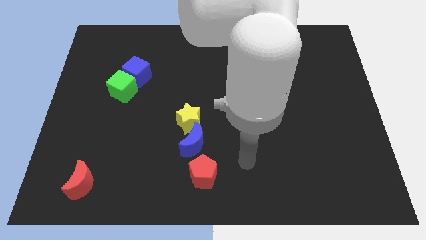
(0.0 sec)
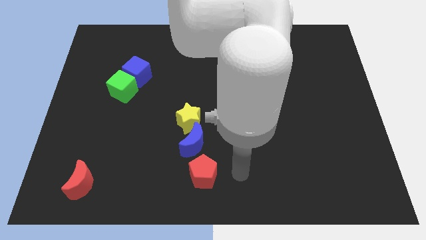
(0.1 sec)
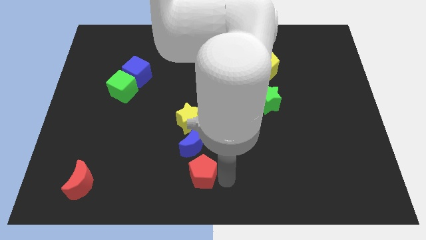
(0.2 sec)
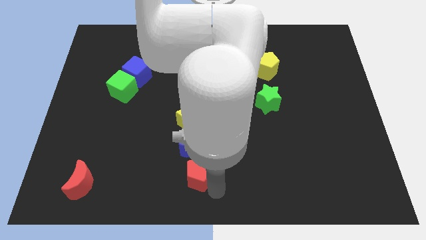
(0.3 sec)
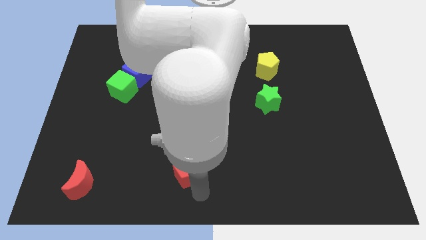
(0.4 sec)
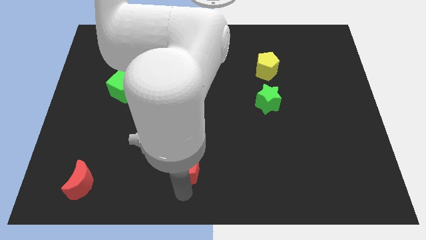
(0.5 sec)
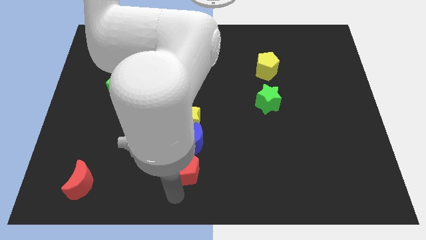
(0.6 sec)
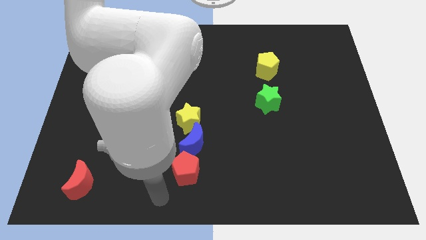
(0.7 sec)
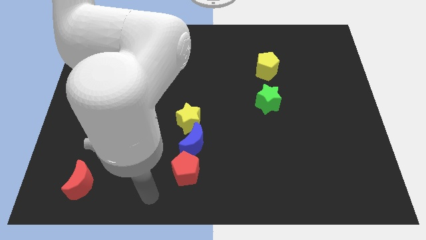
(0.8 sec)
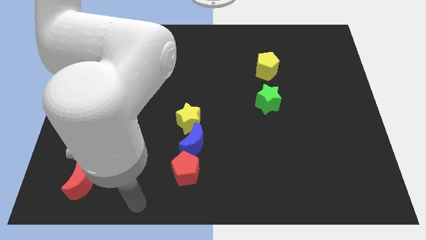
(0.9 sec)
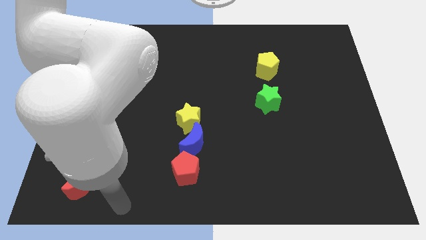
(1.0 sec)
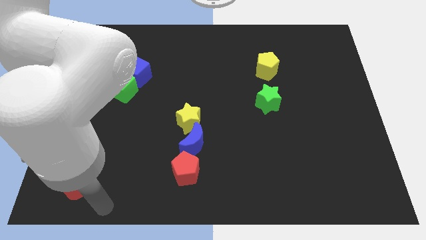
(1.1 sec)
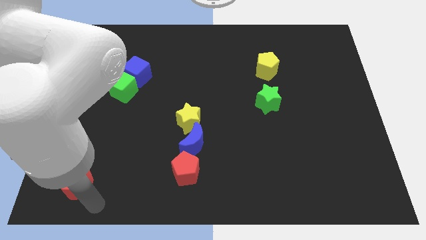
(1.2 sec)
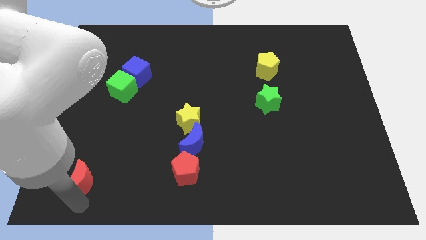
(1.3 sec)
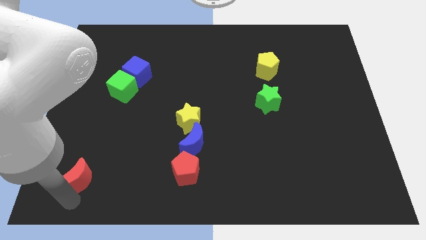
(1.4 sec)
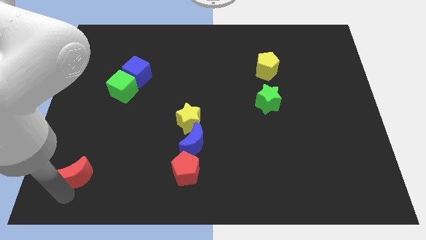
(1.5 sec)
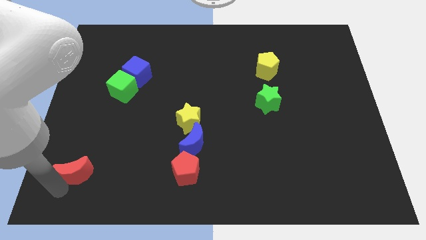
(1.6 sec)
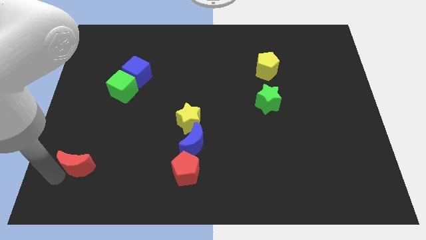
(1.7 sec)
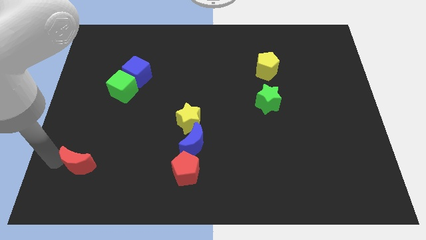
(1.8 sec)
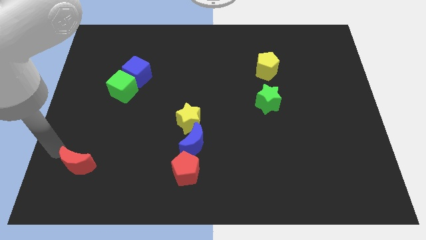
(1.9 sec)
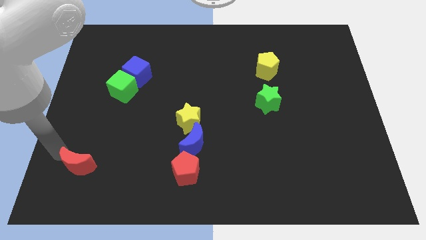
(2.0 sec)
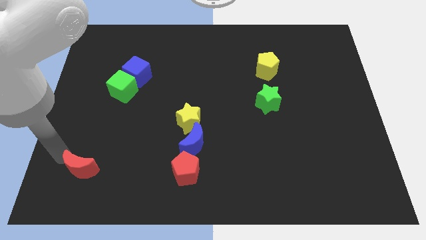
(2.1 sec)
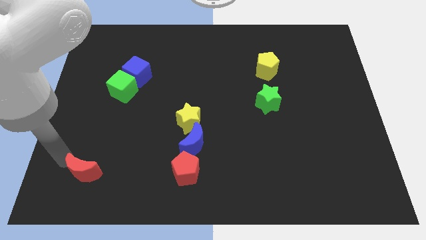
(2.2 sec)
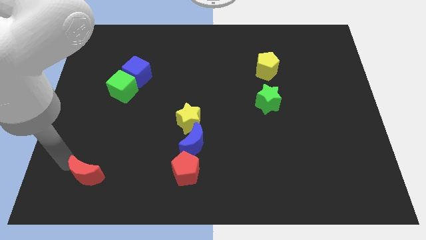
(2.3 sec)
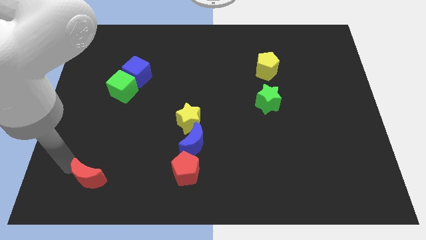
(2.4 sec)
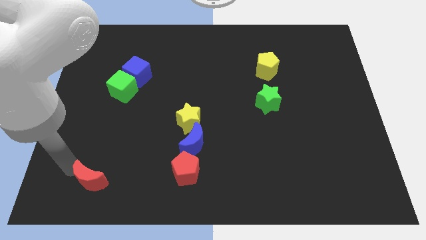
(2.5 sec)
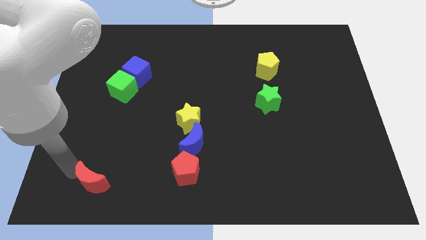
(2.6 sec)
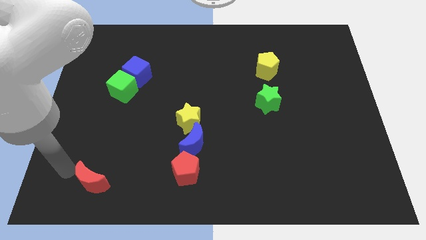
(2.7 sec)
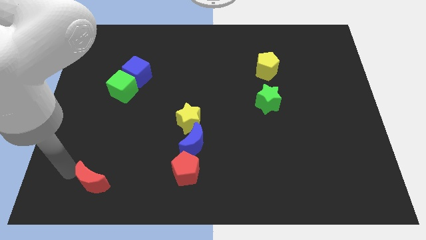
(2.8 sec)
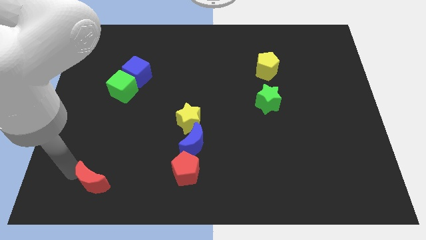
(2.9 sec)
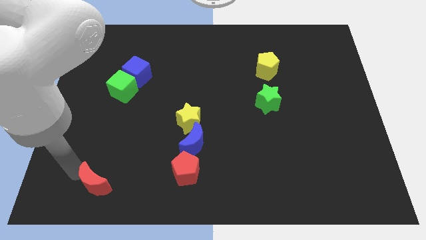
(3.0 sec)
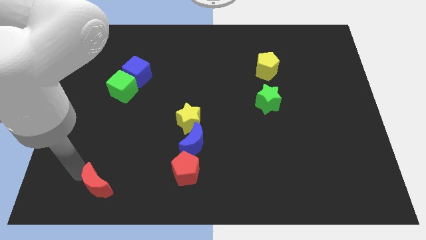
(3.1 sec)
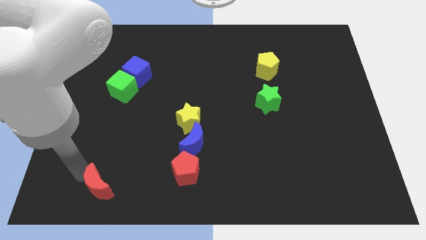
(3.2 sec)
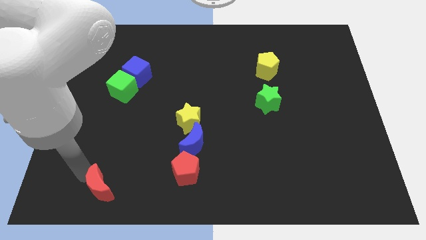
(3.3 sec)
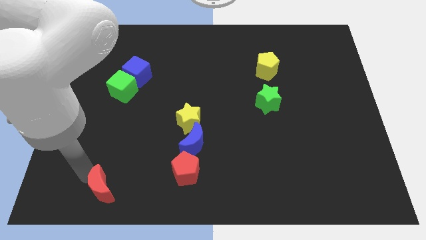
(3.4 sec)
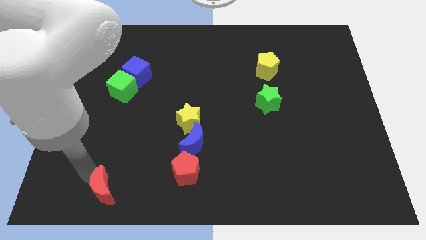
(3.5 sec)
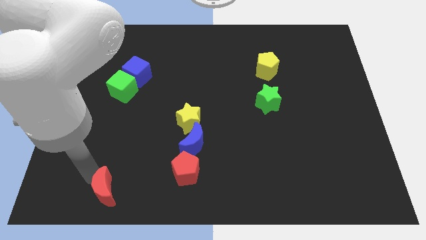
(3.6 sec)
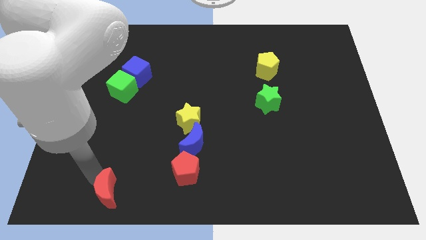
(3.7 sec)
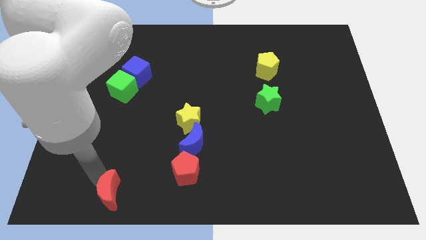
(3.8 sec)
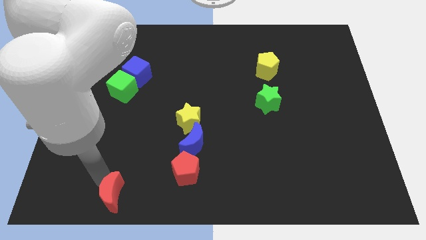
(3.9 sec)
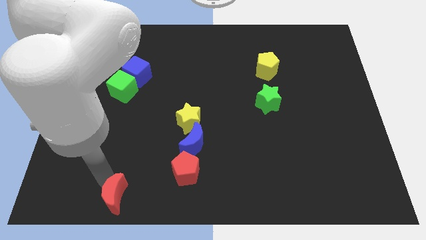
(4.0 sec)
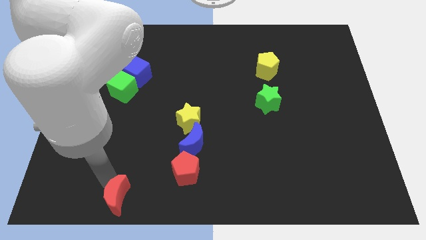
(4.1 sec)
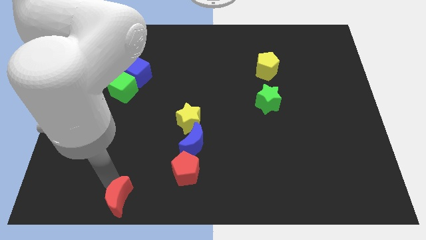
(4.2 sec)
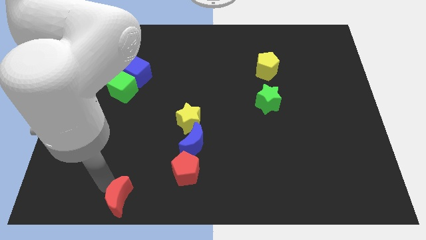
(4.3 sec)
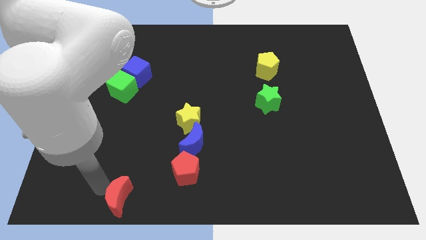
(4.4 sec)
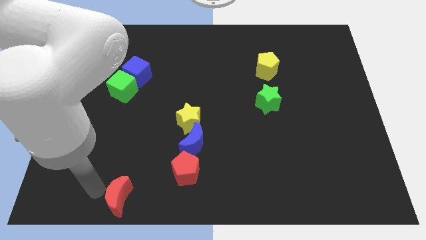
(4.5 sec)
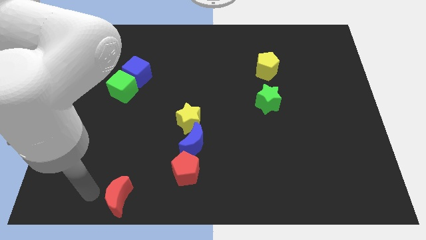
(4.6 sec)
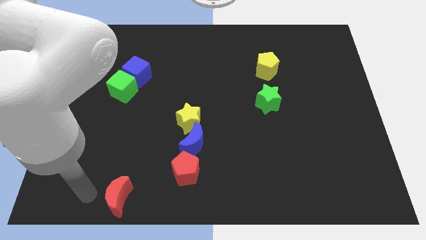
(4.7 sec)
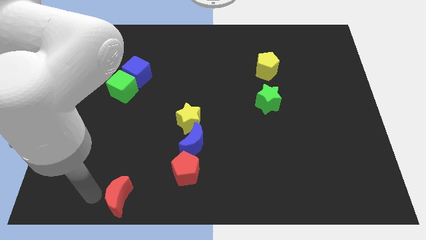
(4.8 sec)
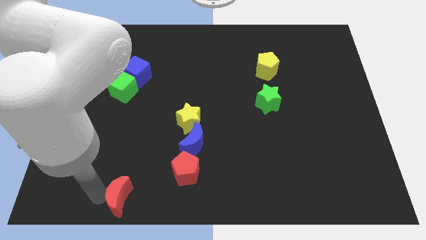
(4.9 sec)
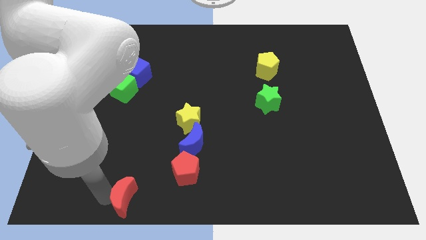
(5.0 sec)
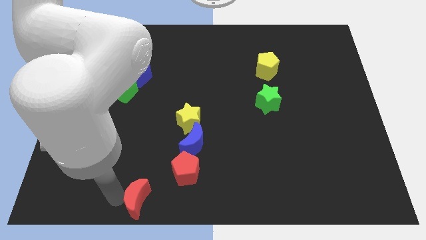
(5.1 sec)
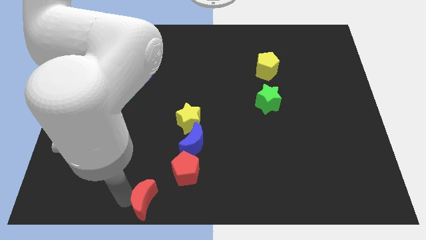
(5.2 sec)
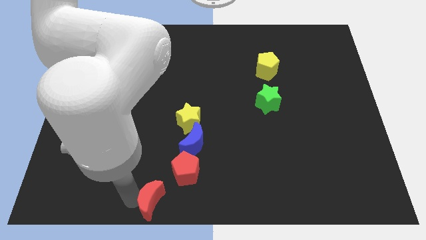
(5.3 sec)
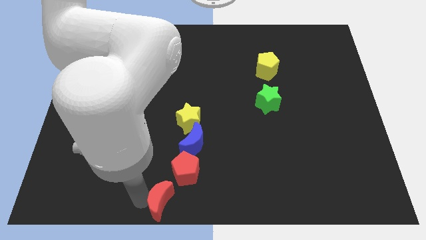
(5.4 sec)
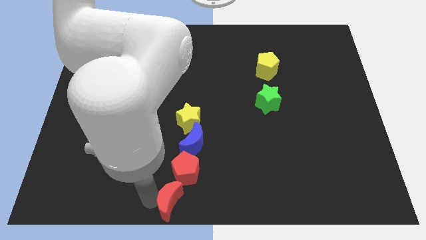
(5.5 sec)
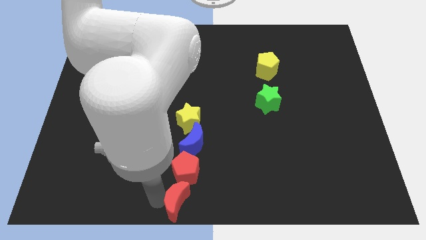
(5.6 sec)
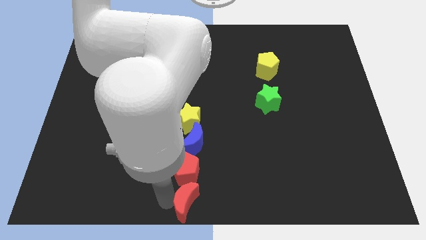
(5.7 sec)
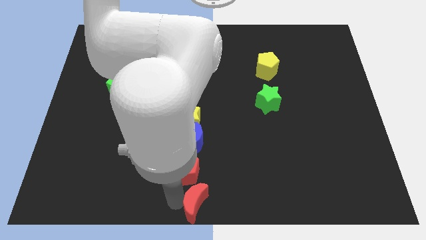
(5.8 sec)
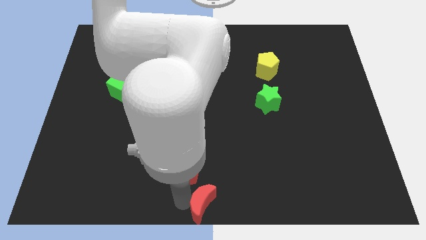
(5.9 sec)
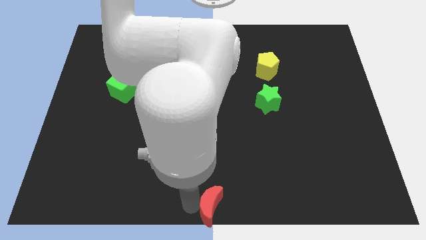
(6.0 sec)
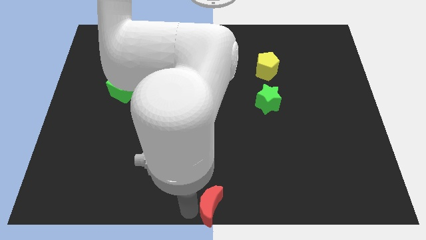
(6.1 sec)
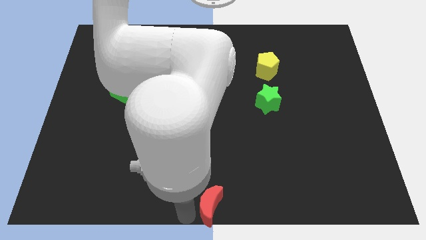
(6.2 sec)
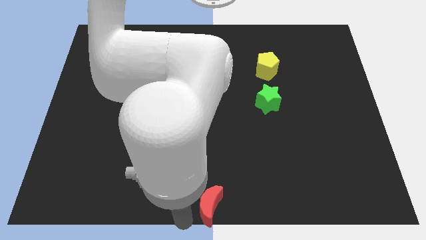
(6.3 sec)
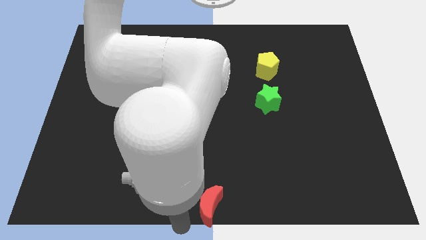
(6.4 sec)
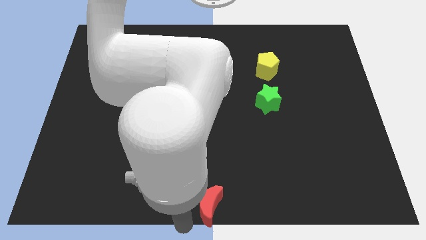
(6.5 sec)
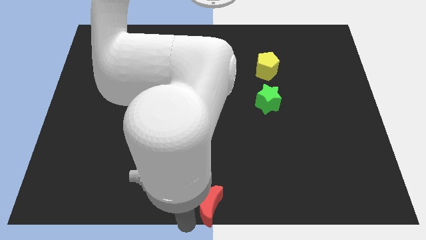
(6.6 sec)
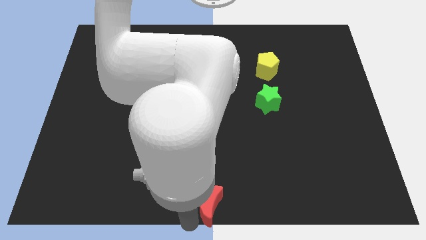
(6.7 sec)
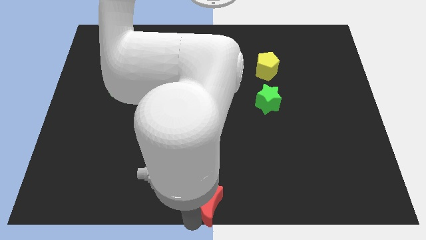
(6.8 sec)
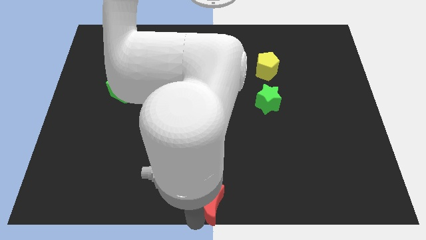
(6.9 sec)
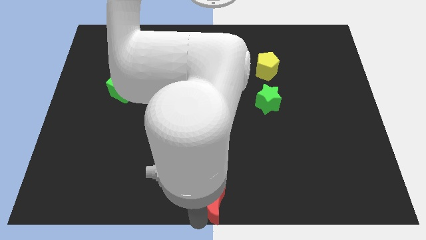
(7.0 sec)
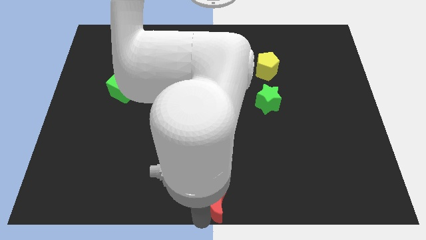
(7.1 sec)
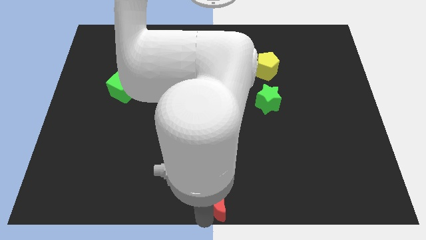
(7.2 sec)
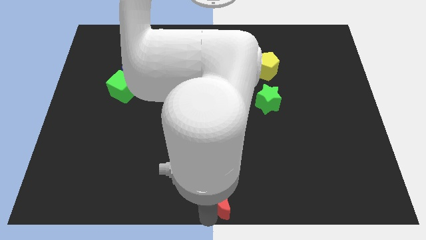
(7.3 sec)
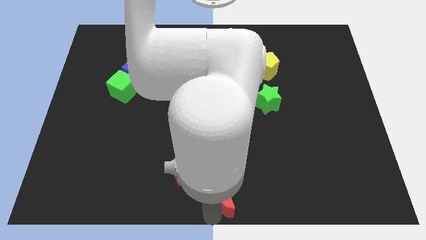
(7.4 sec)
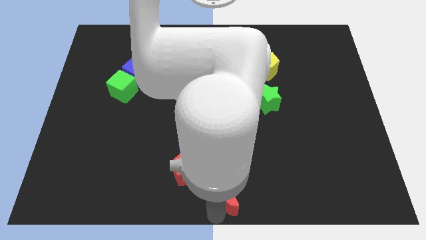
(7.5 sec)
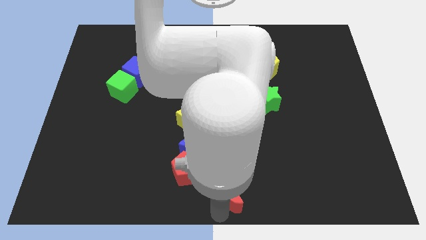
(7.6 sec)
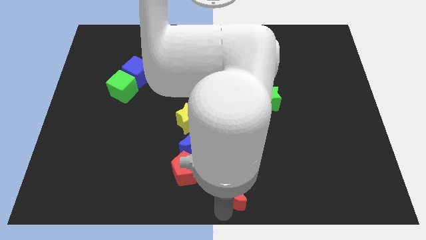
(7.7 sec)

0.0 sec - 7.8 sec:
slide the red moon to the right side of the red pentagon
